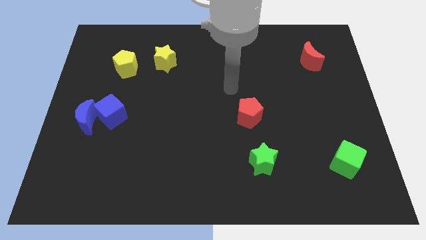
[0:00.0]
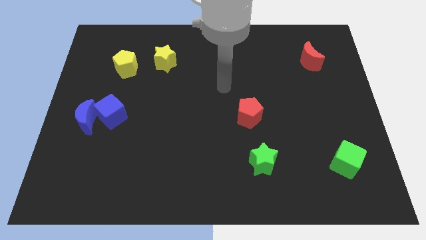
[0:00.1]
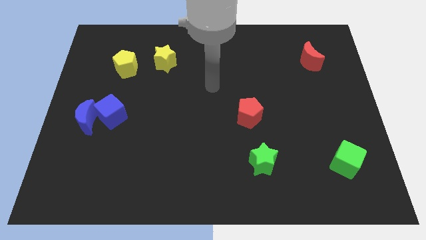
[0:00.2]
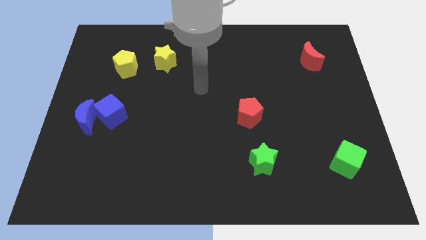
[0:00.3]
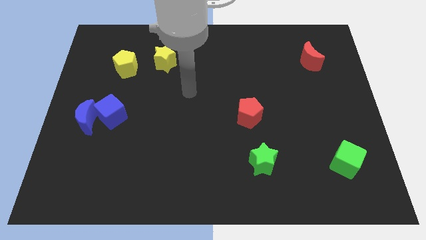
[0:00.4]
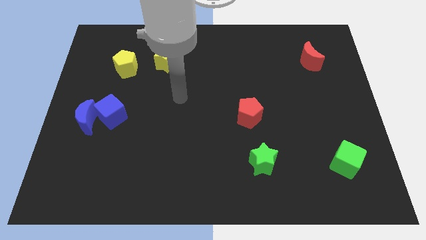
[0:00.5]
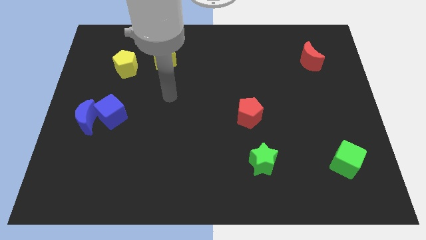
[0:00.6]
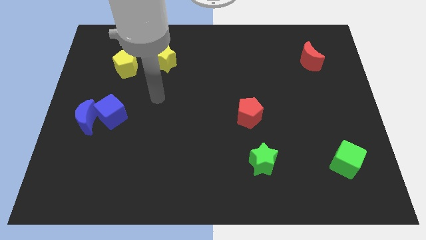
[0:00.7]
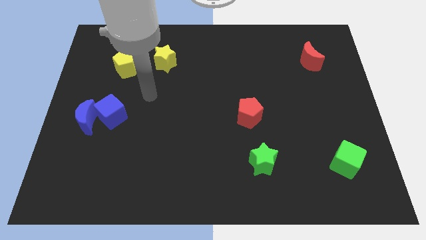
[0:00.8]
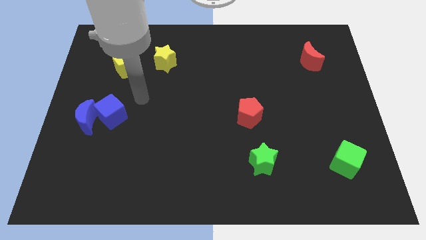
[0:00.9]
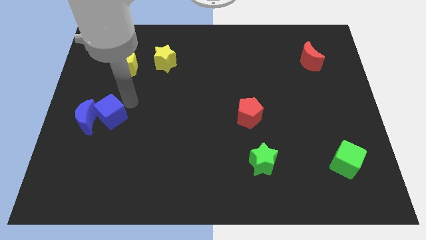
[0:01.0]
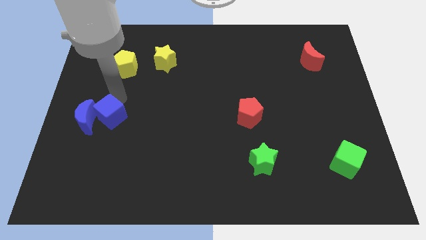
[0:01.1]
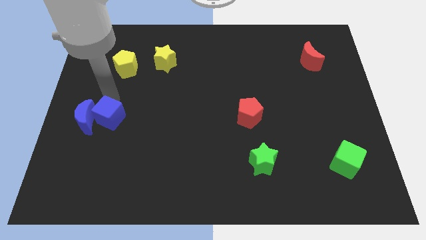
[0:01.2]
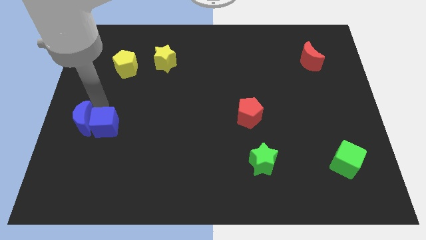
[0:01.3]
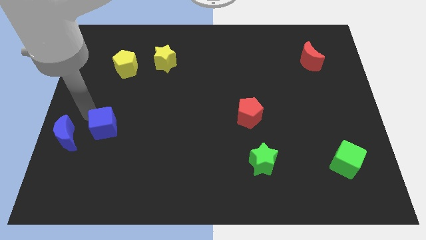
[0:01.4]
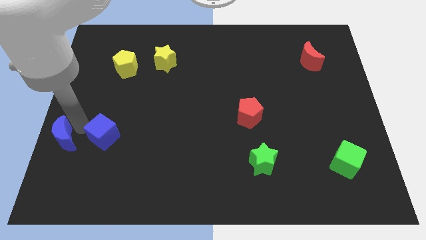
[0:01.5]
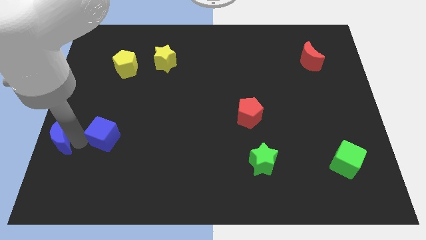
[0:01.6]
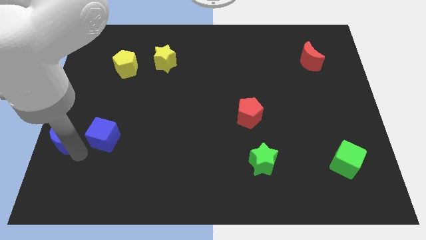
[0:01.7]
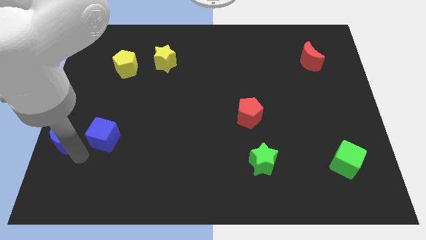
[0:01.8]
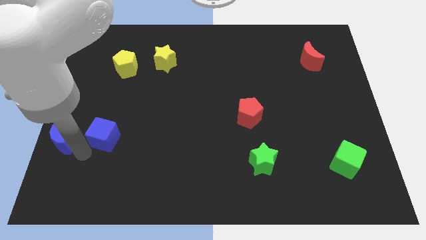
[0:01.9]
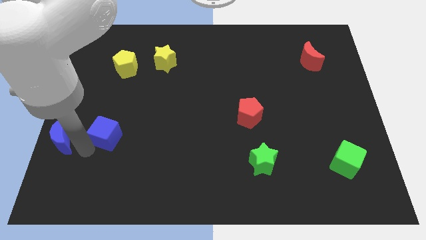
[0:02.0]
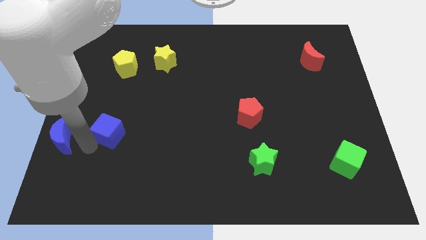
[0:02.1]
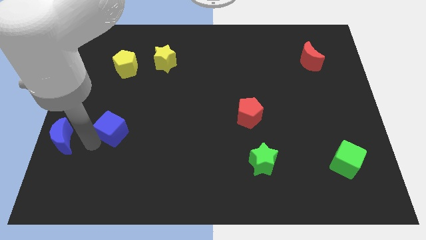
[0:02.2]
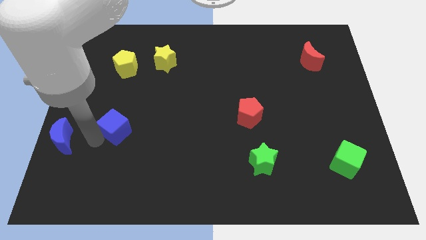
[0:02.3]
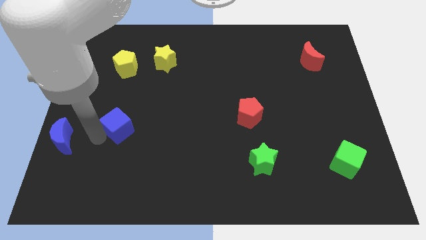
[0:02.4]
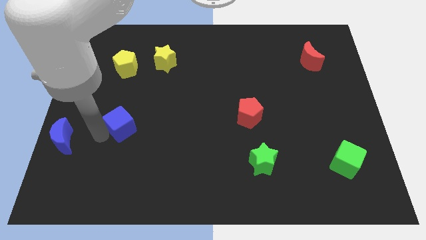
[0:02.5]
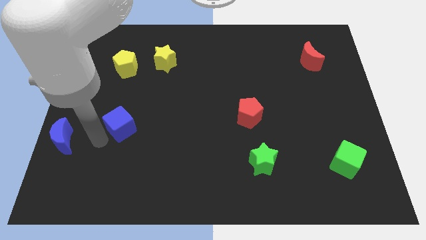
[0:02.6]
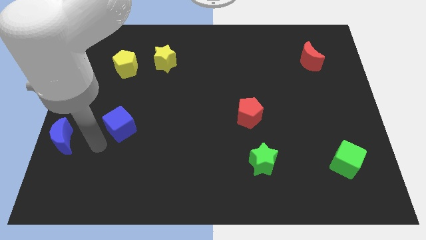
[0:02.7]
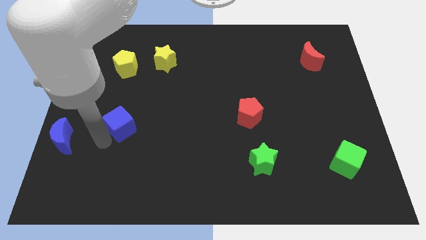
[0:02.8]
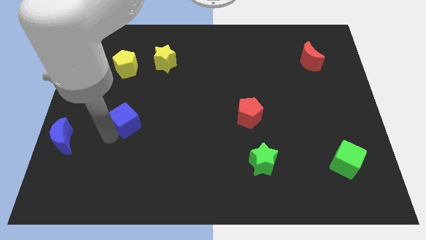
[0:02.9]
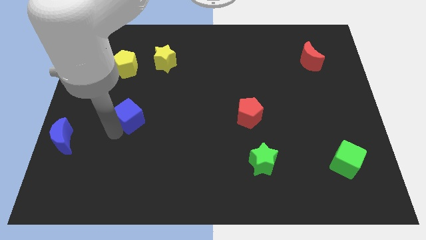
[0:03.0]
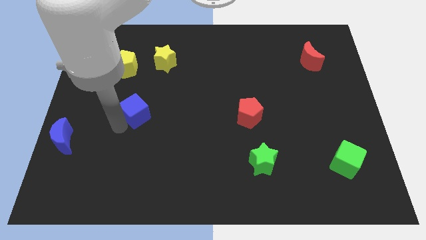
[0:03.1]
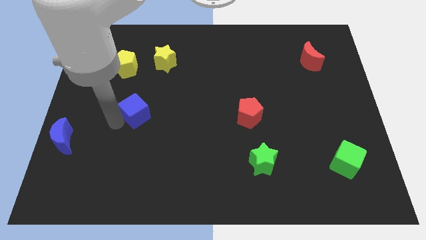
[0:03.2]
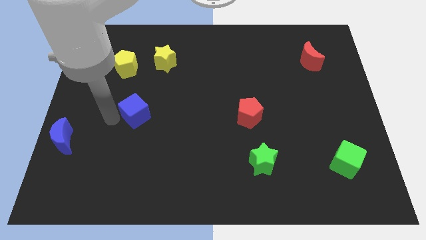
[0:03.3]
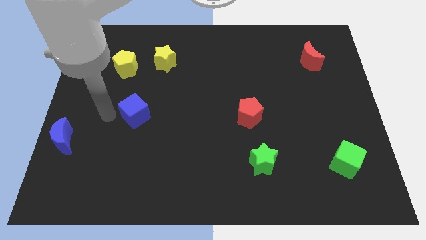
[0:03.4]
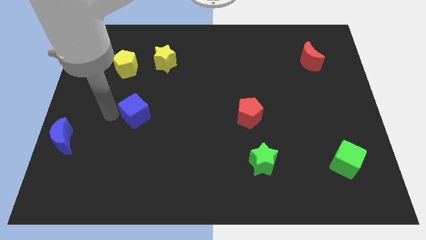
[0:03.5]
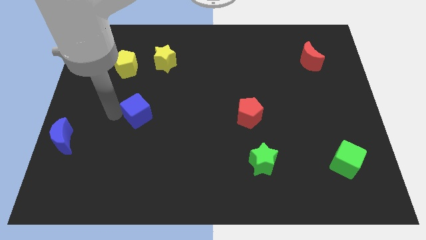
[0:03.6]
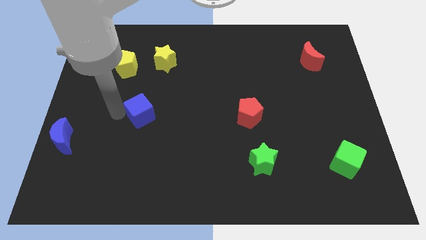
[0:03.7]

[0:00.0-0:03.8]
push the blue cube right a little

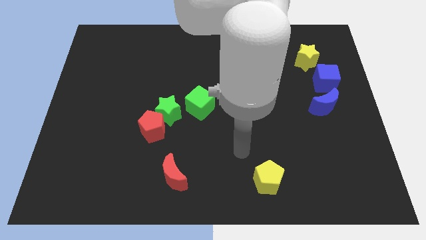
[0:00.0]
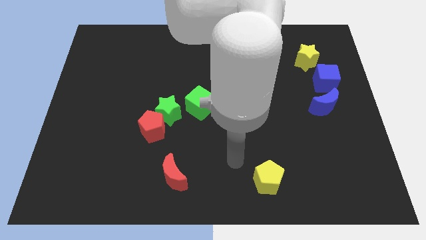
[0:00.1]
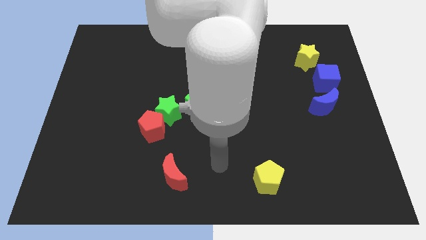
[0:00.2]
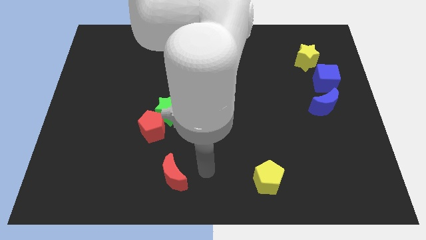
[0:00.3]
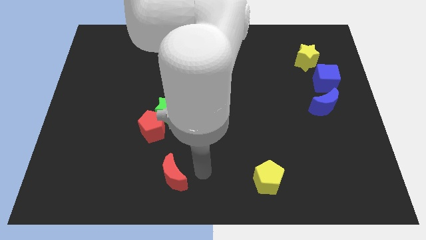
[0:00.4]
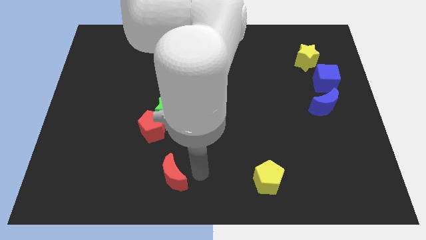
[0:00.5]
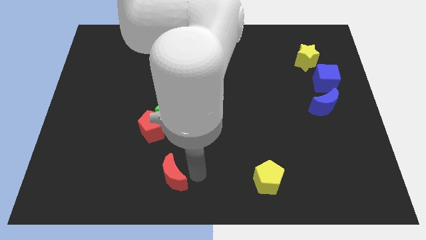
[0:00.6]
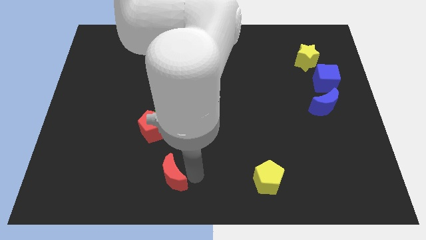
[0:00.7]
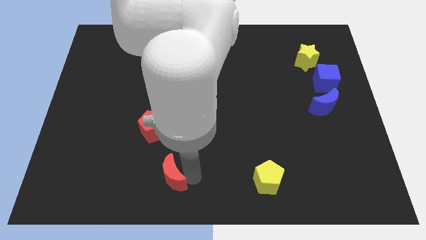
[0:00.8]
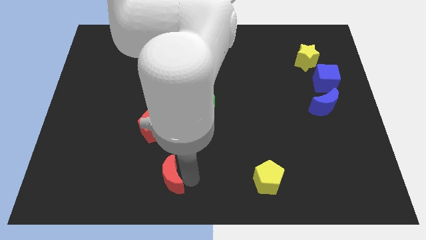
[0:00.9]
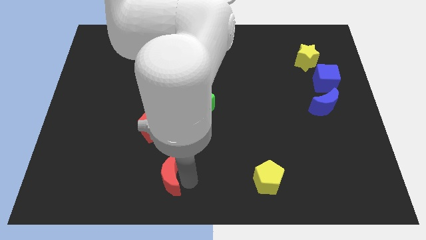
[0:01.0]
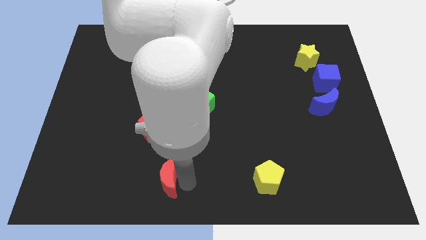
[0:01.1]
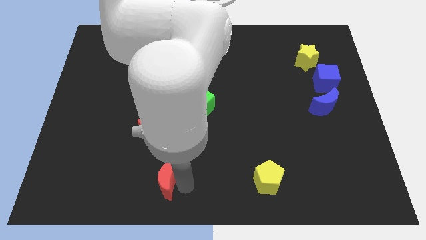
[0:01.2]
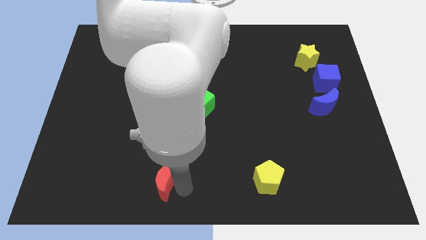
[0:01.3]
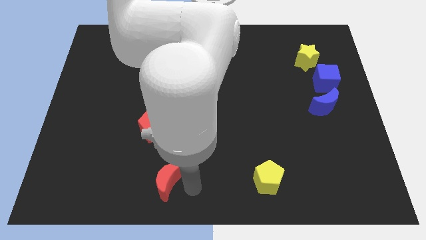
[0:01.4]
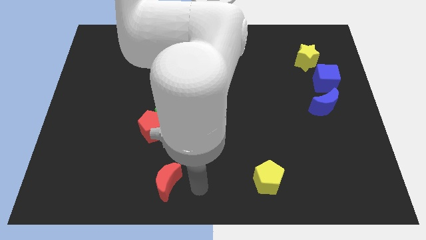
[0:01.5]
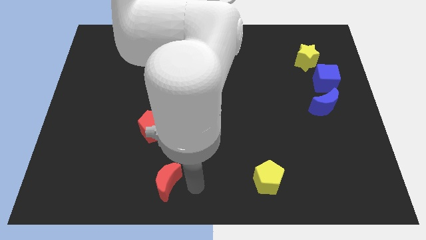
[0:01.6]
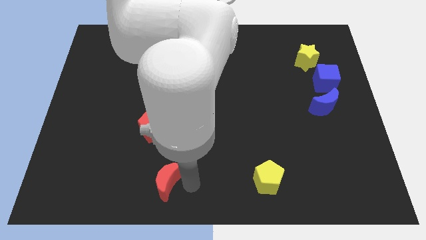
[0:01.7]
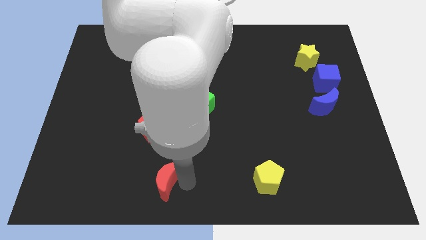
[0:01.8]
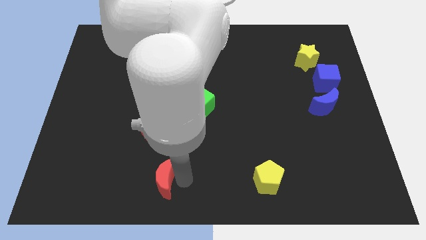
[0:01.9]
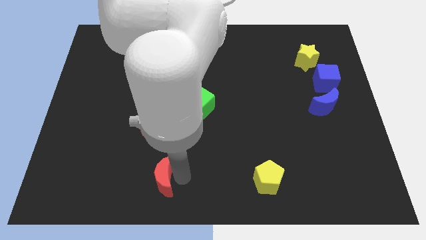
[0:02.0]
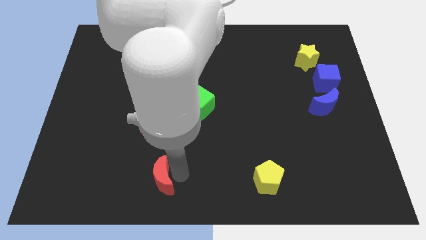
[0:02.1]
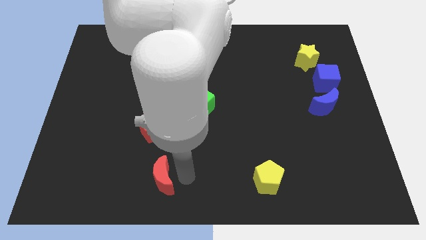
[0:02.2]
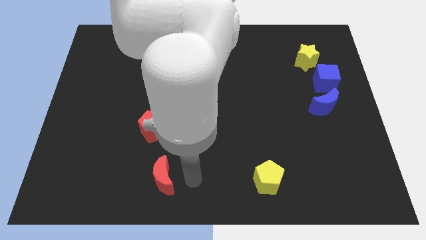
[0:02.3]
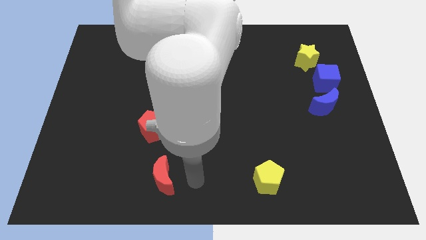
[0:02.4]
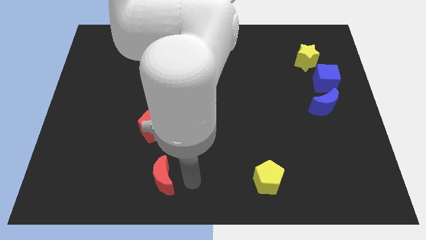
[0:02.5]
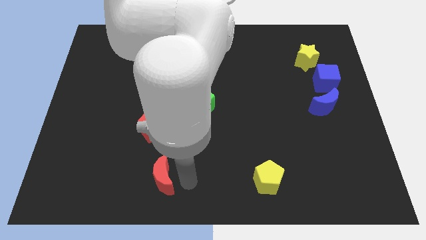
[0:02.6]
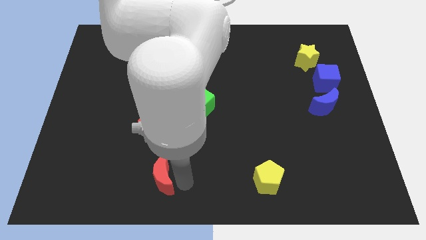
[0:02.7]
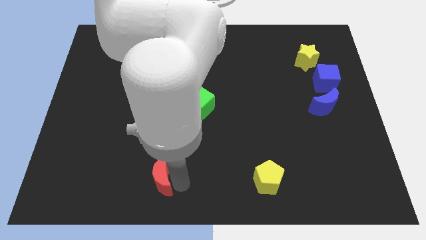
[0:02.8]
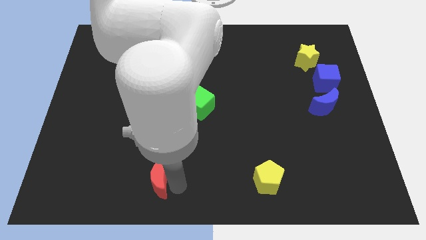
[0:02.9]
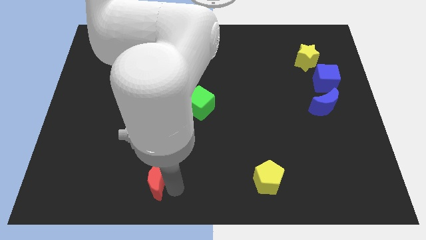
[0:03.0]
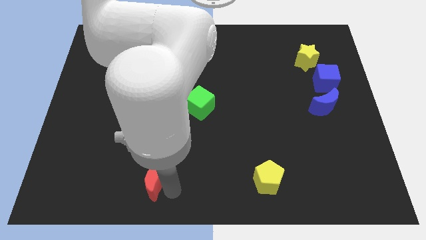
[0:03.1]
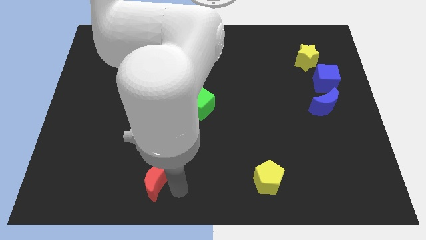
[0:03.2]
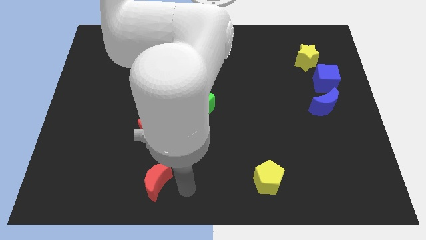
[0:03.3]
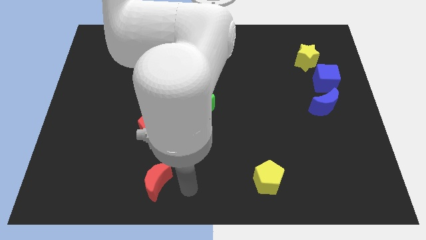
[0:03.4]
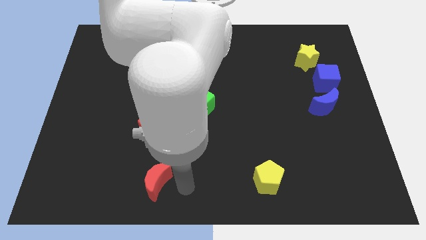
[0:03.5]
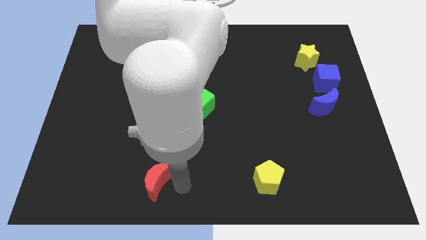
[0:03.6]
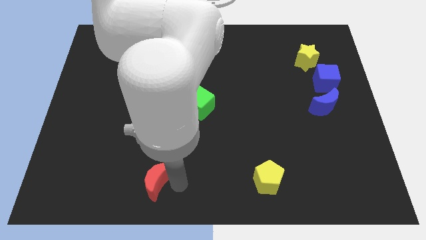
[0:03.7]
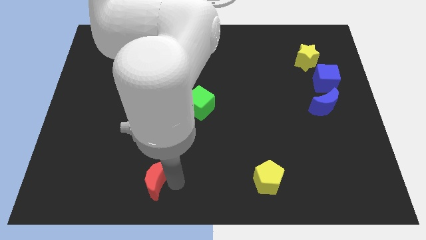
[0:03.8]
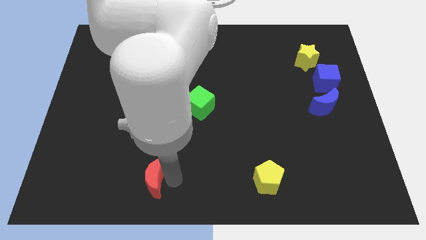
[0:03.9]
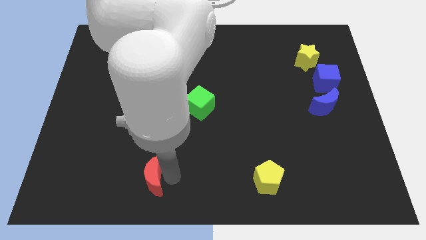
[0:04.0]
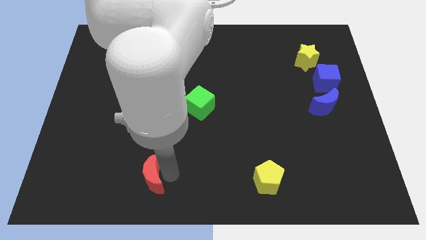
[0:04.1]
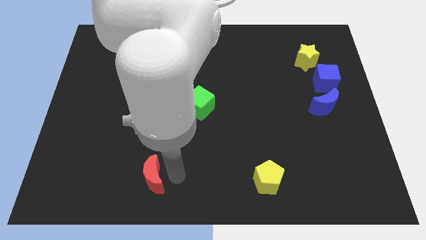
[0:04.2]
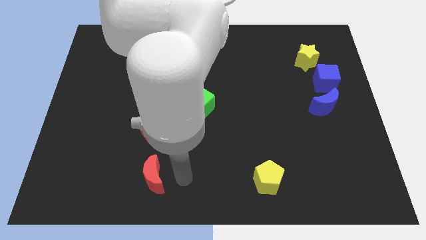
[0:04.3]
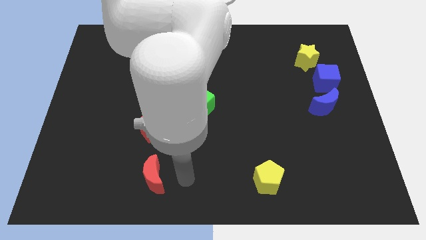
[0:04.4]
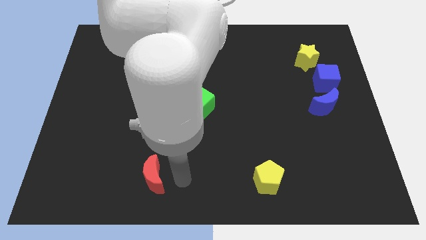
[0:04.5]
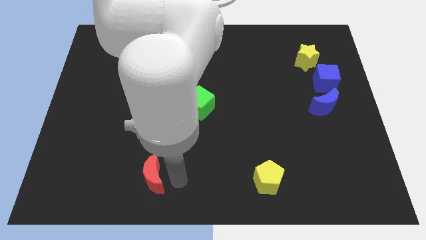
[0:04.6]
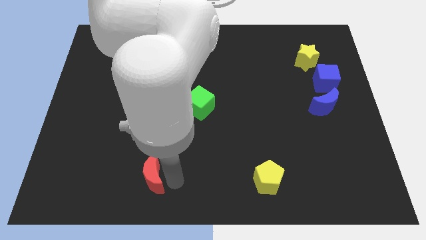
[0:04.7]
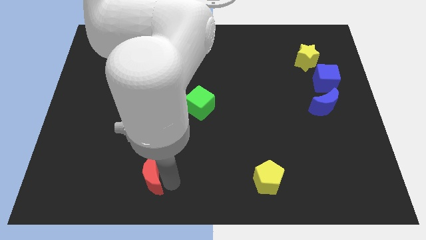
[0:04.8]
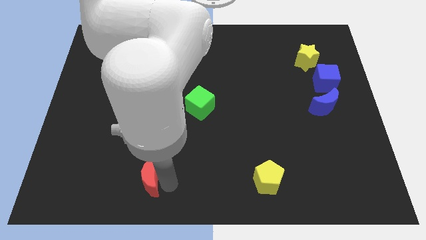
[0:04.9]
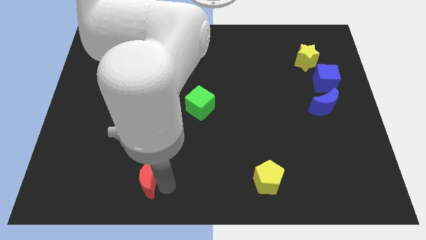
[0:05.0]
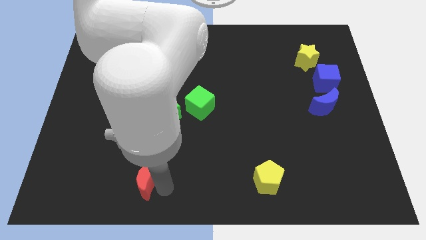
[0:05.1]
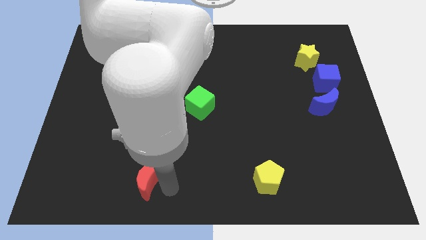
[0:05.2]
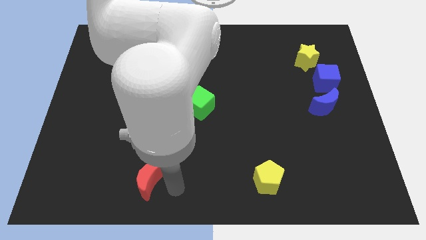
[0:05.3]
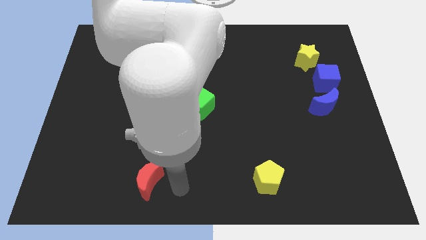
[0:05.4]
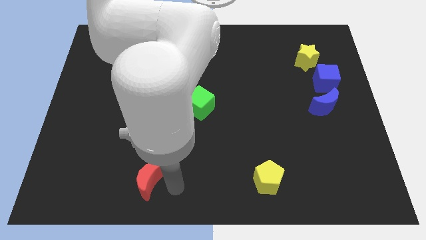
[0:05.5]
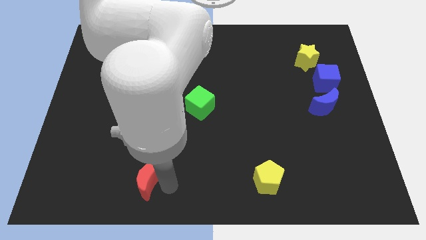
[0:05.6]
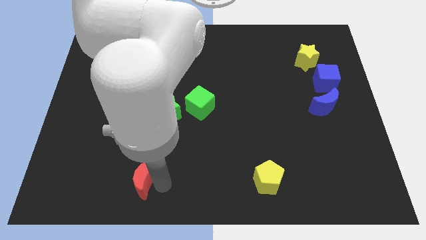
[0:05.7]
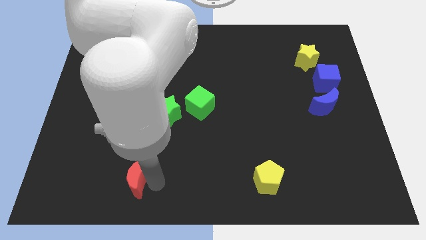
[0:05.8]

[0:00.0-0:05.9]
move the red moon a little to the left
